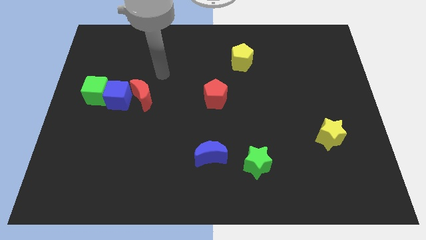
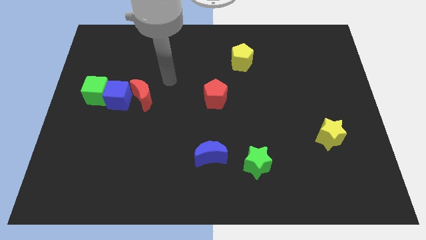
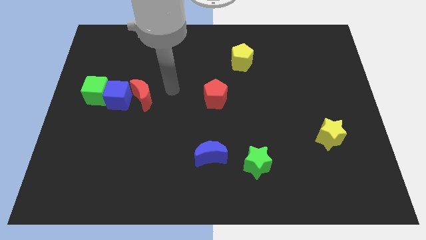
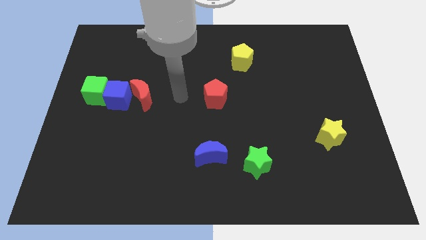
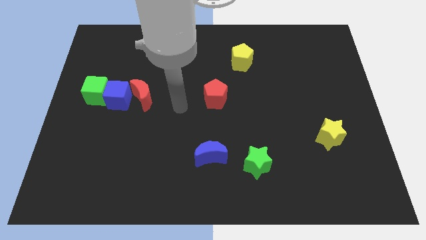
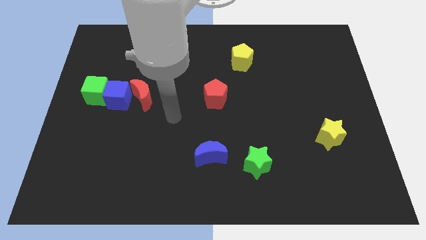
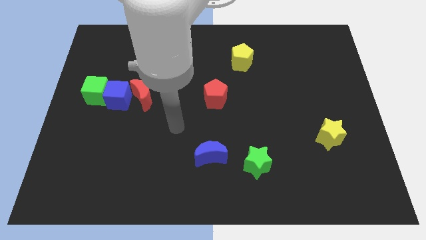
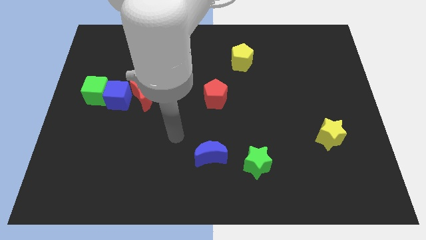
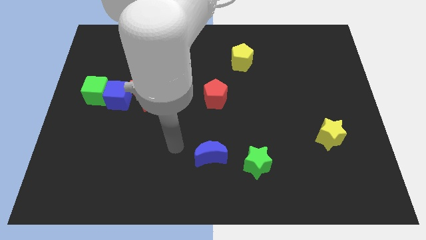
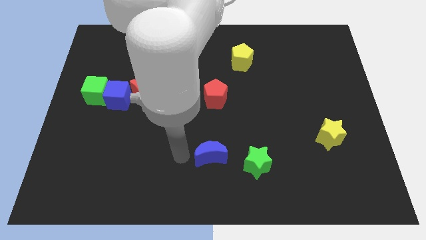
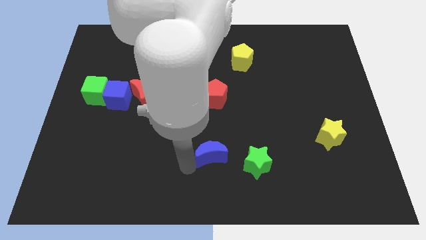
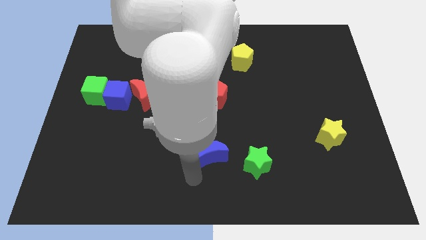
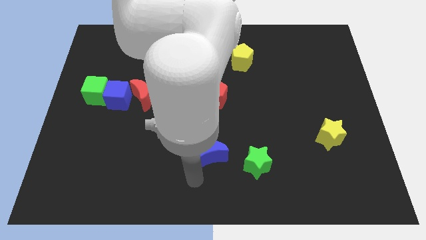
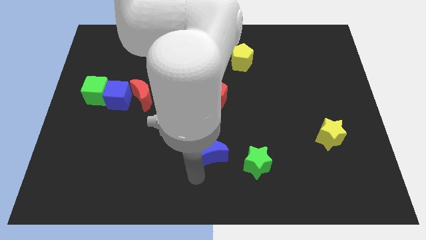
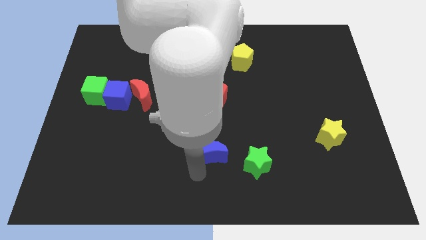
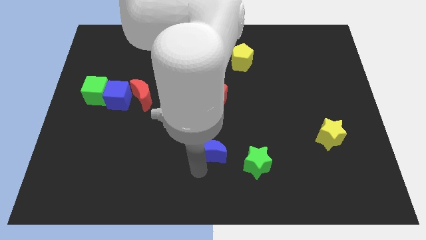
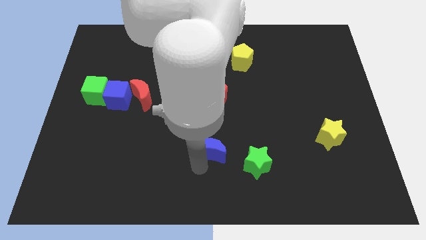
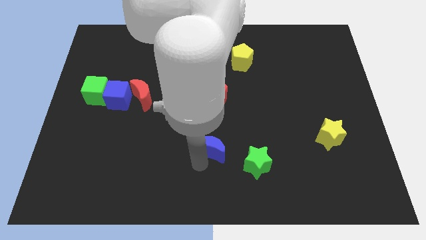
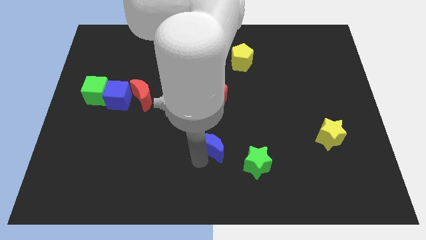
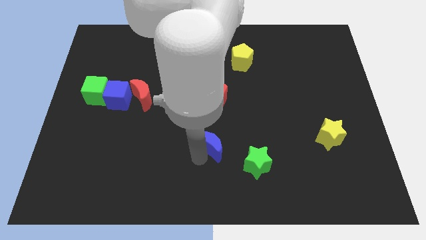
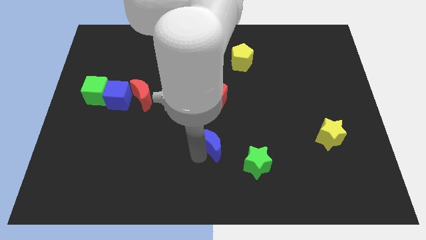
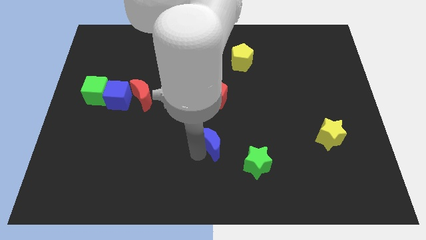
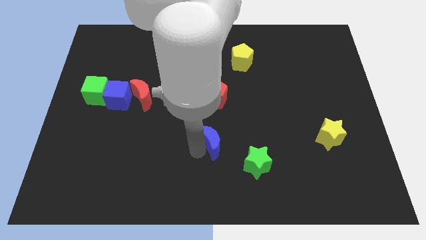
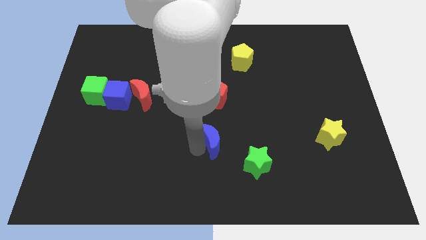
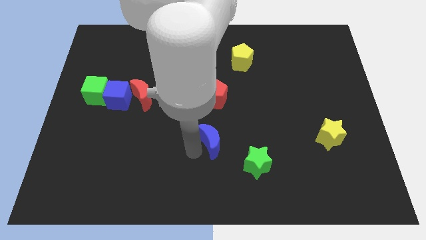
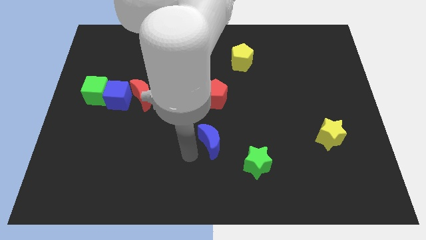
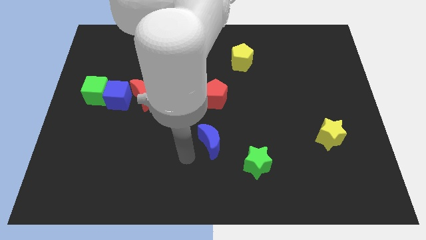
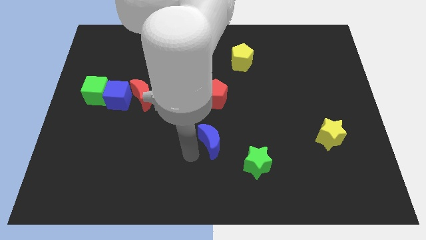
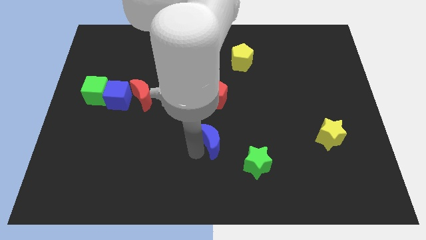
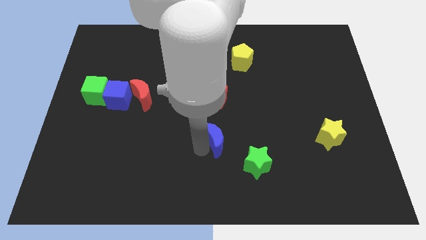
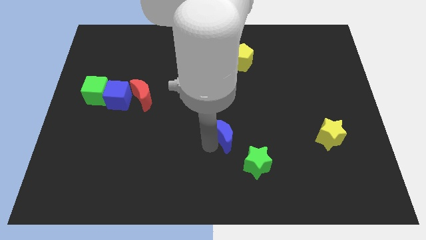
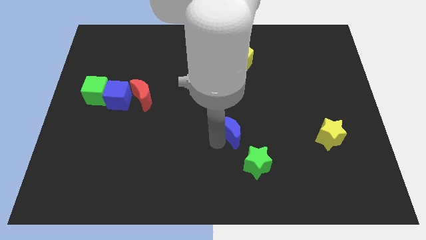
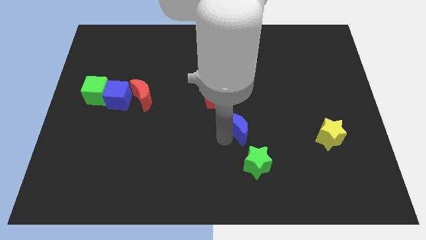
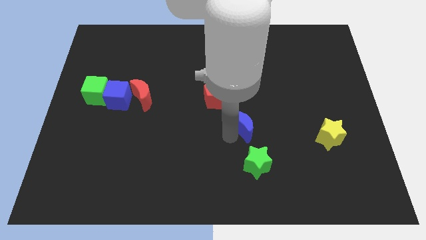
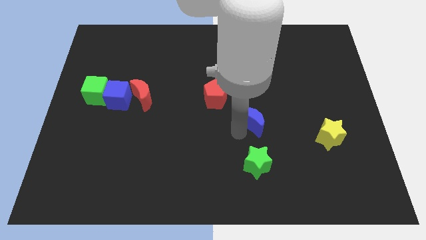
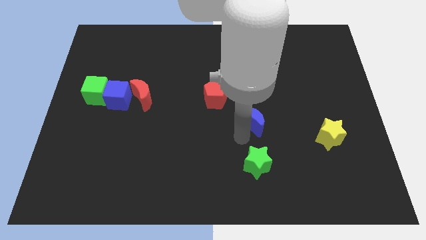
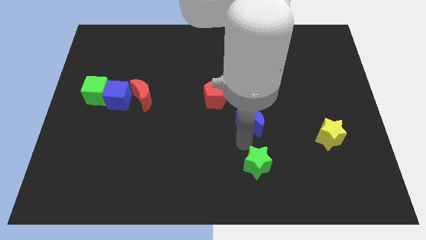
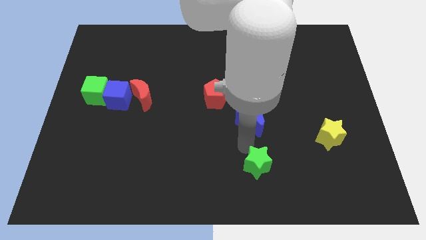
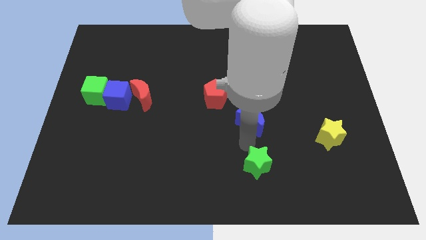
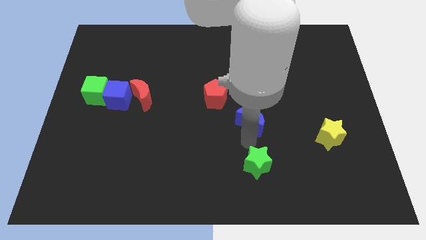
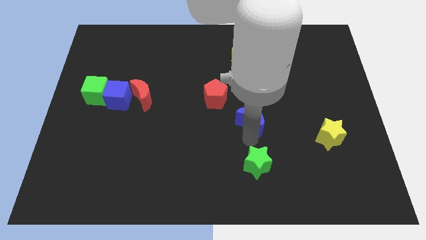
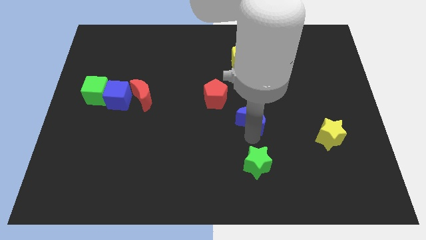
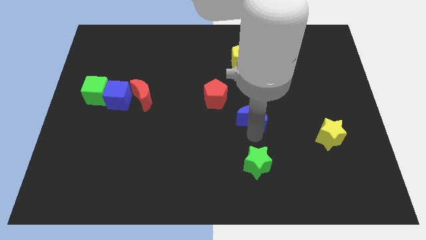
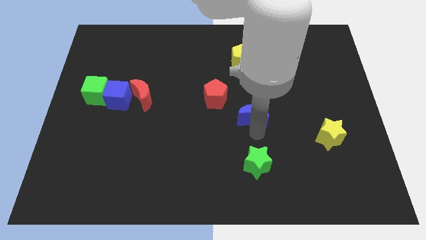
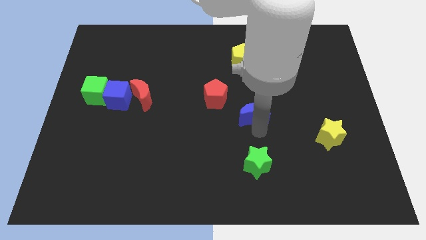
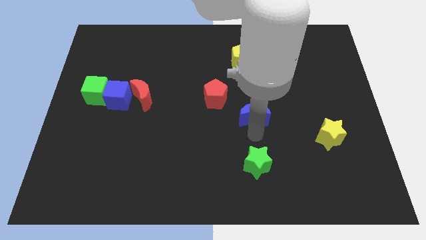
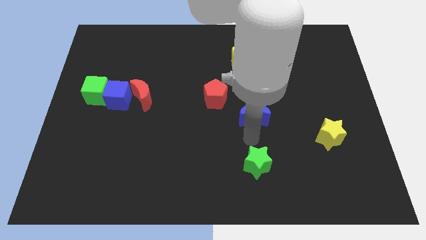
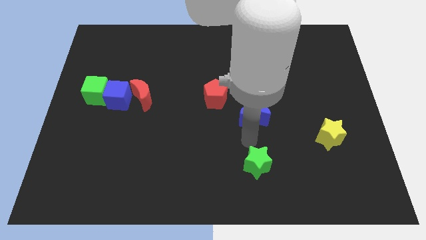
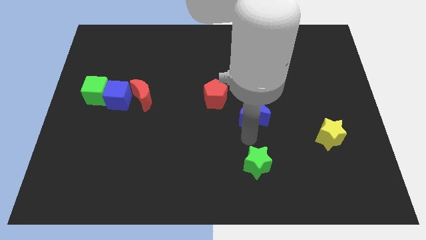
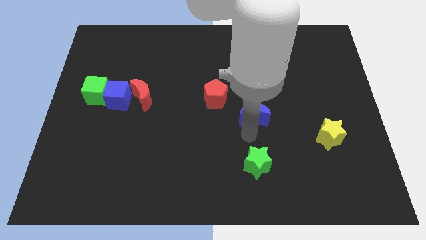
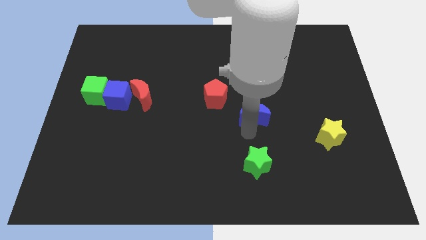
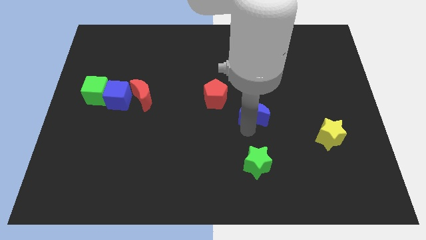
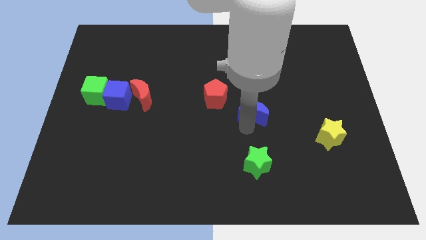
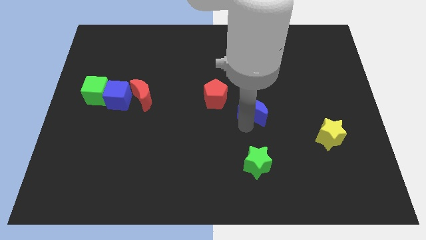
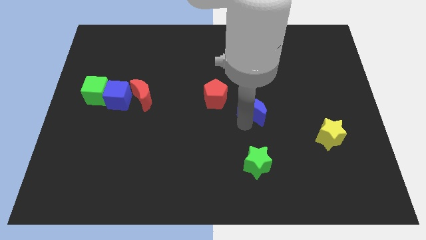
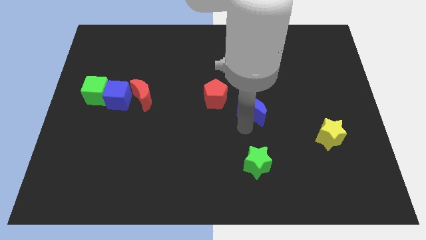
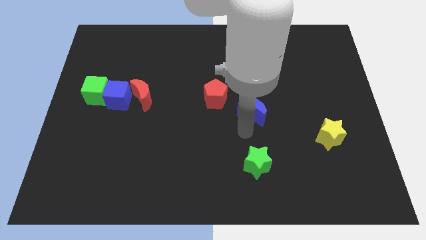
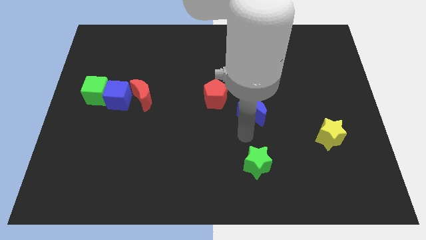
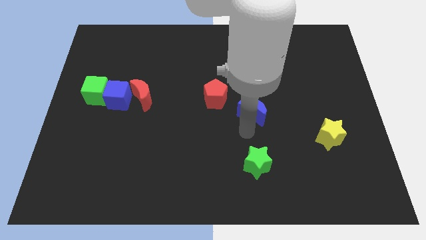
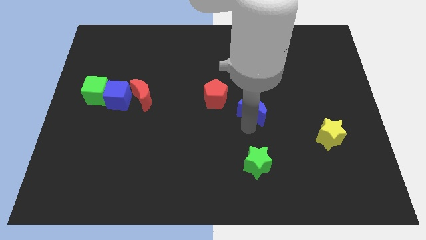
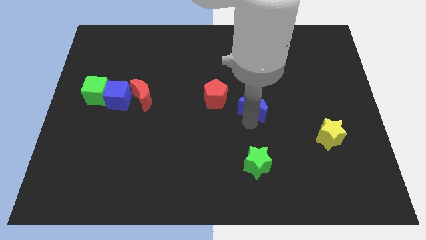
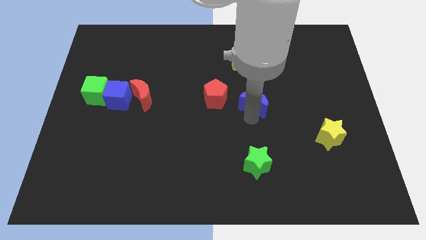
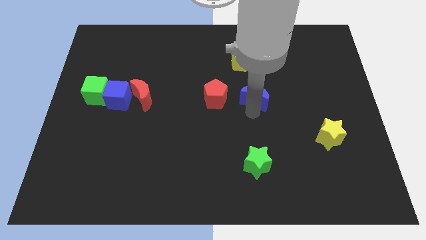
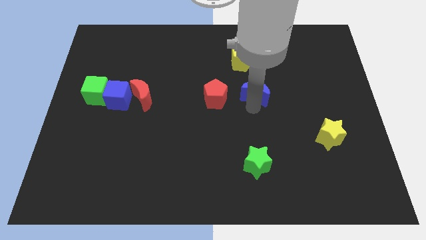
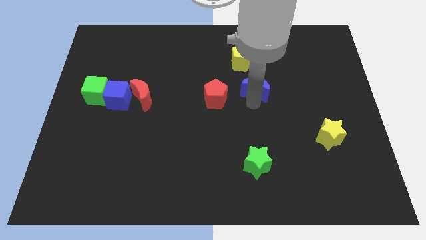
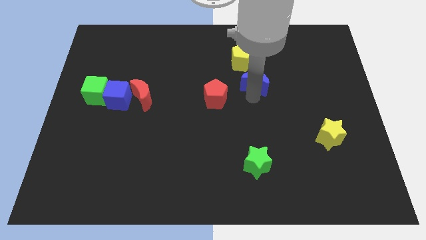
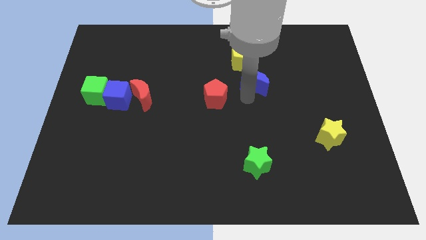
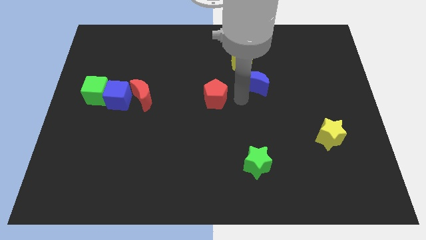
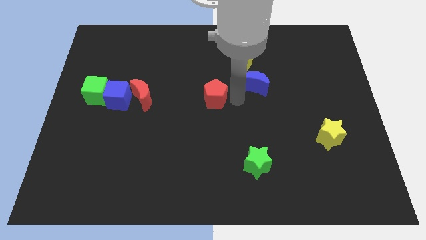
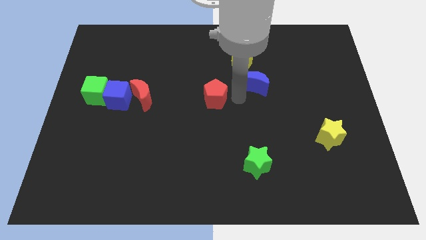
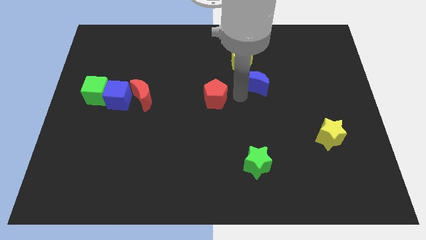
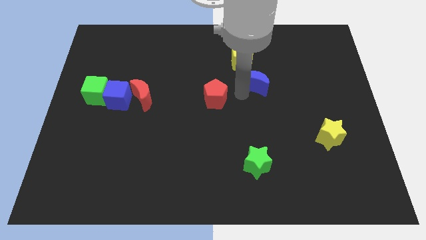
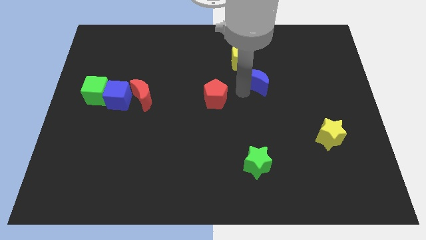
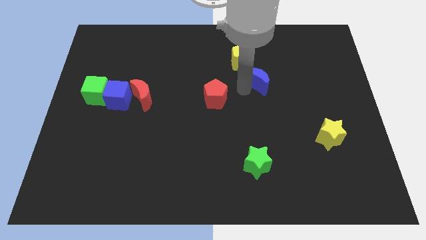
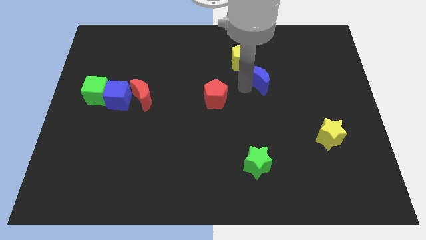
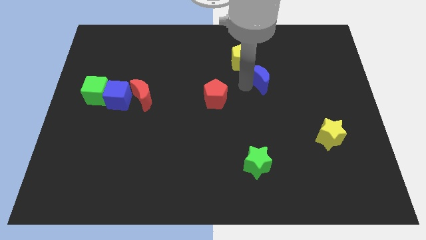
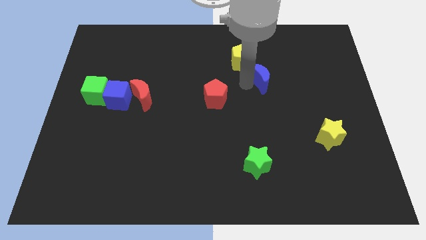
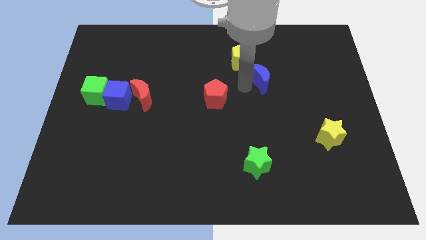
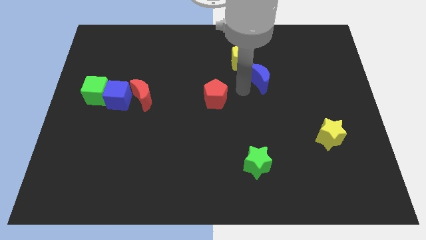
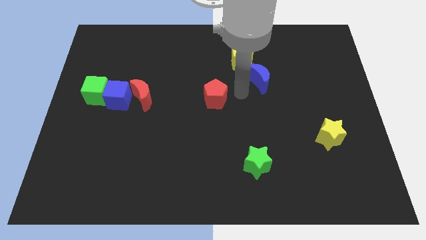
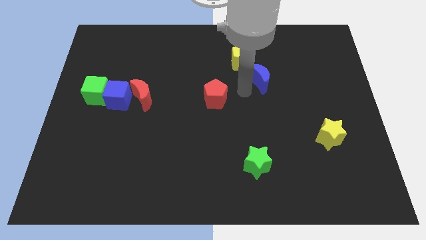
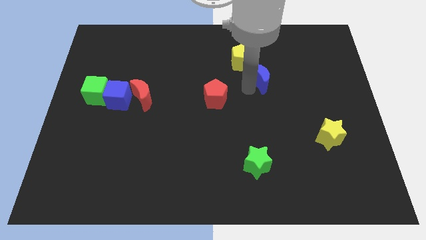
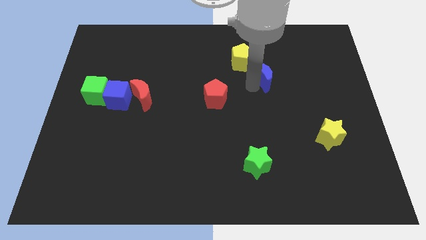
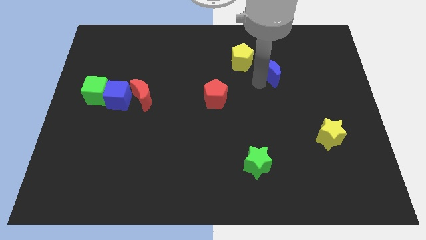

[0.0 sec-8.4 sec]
push the blue moon to the right of the yellow pentagon
